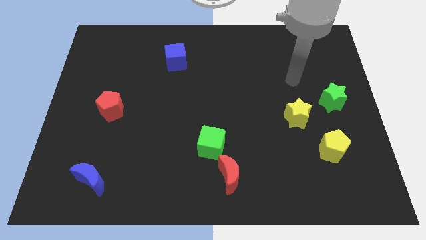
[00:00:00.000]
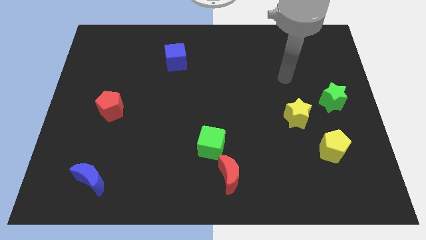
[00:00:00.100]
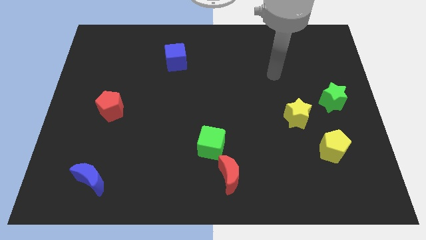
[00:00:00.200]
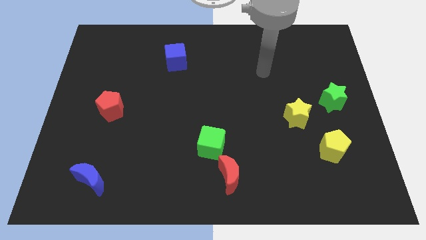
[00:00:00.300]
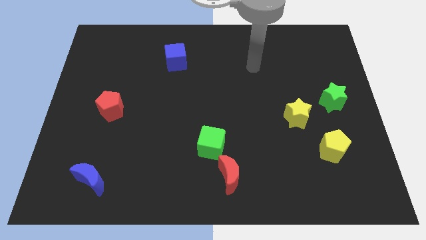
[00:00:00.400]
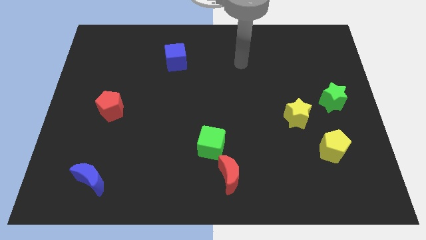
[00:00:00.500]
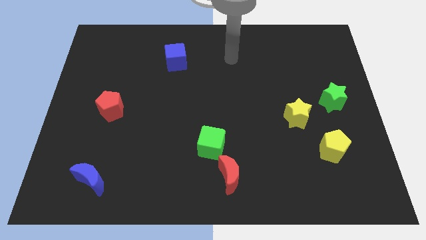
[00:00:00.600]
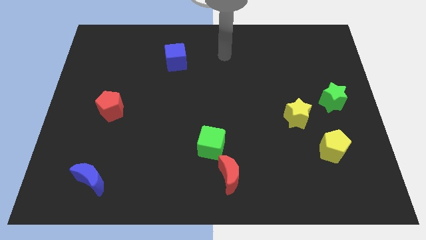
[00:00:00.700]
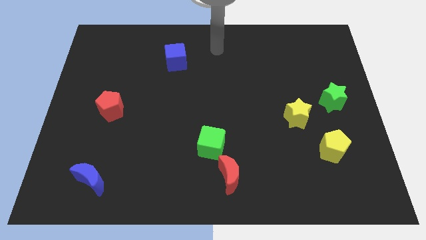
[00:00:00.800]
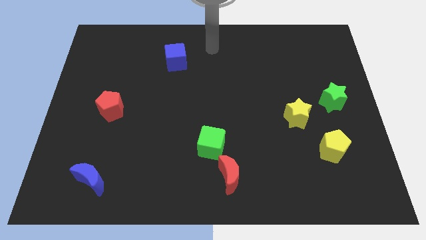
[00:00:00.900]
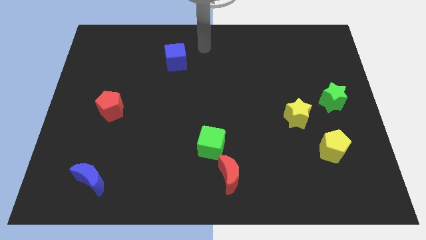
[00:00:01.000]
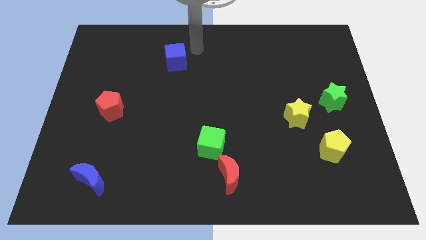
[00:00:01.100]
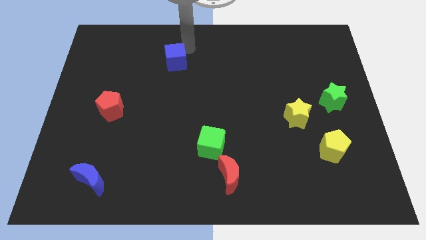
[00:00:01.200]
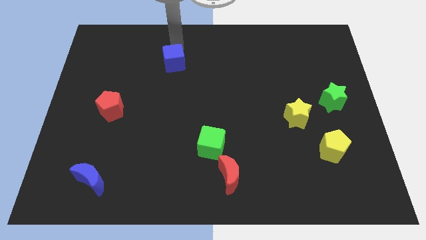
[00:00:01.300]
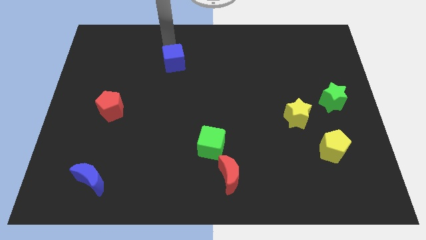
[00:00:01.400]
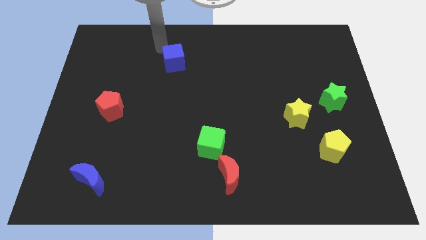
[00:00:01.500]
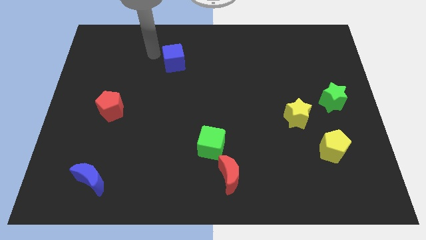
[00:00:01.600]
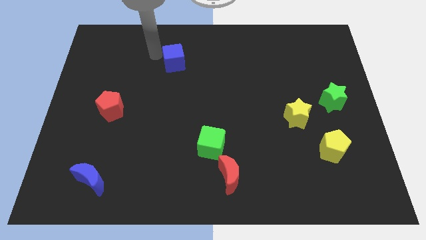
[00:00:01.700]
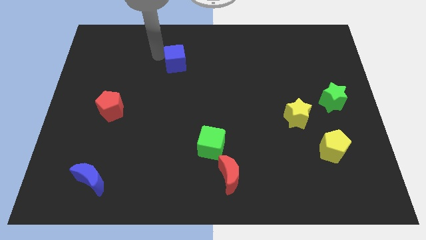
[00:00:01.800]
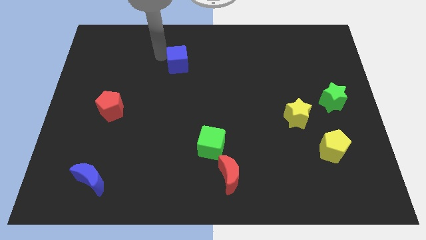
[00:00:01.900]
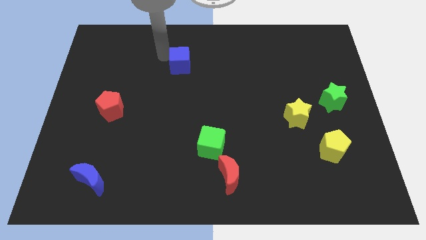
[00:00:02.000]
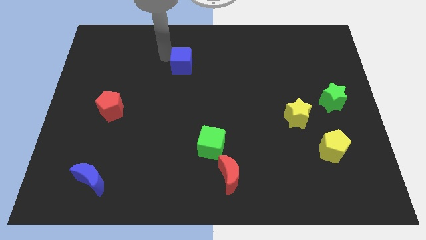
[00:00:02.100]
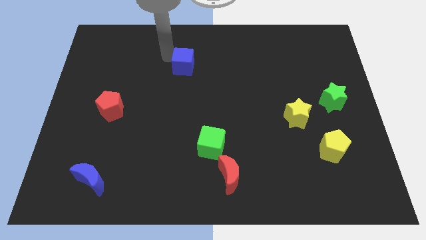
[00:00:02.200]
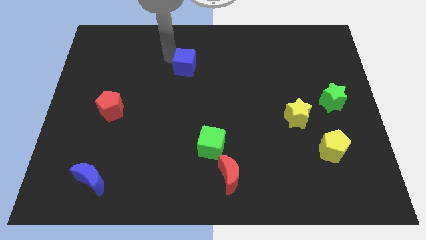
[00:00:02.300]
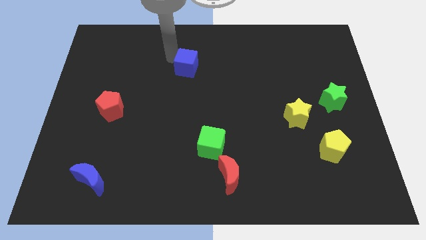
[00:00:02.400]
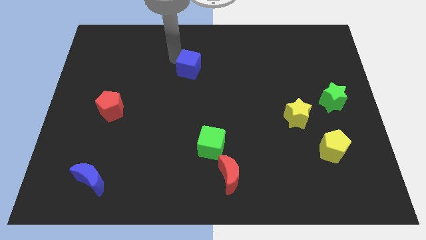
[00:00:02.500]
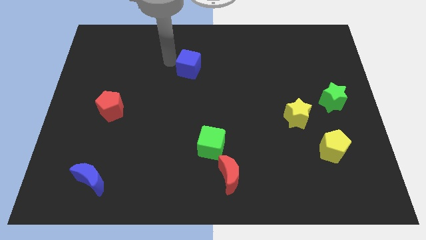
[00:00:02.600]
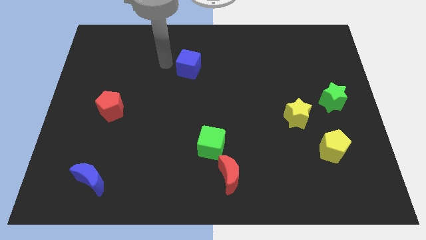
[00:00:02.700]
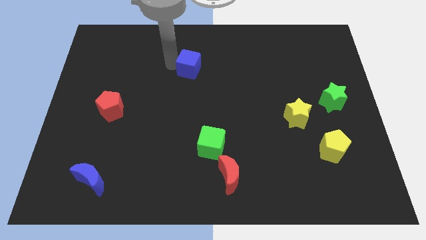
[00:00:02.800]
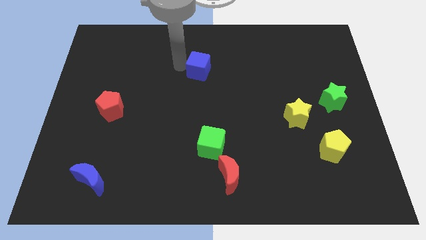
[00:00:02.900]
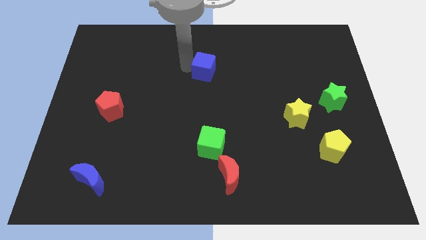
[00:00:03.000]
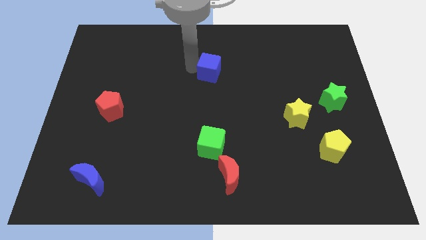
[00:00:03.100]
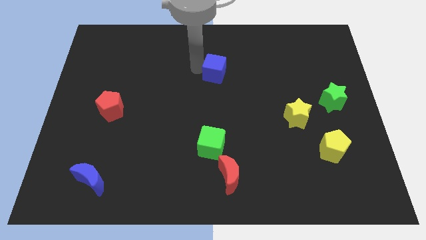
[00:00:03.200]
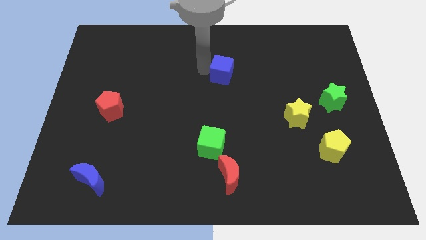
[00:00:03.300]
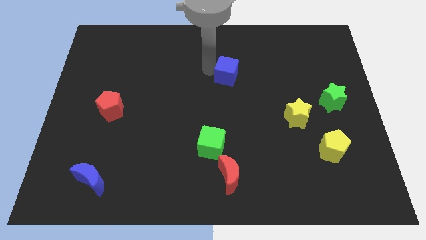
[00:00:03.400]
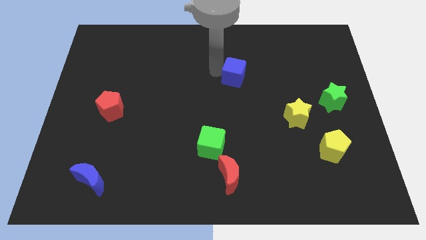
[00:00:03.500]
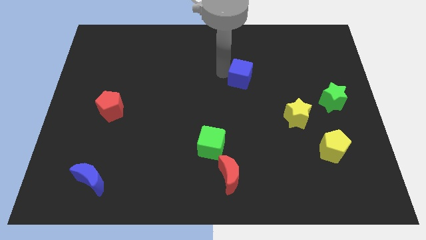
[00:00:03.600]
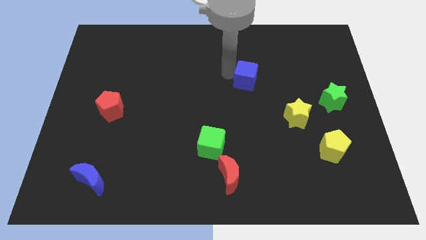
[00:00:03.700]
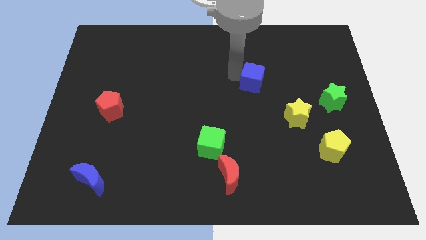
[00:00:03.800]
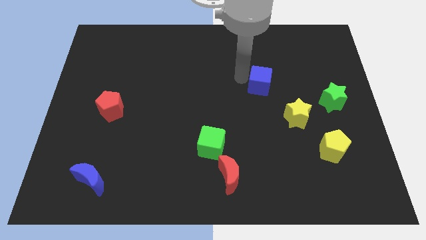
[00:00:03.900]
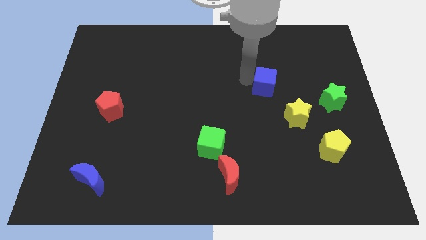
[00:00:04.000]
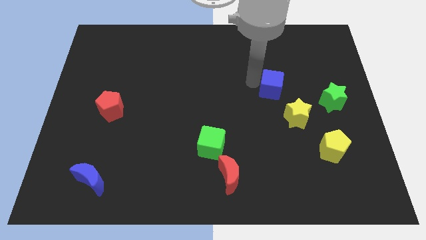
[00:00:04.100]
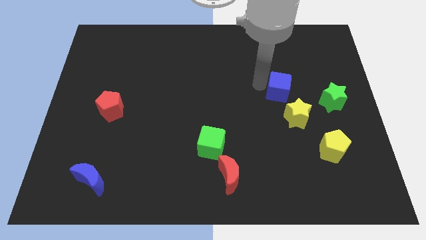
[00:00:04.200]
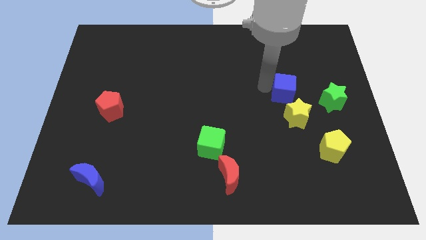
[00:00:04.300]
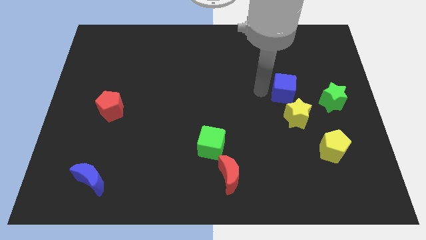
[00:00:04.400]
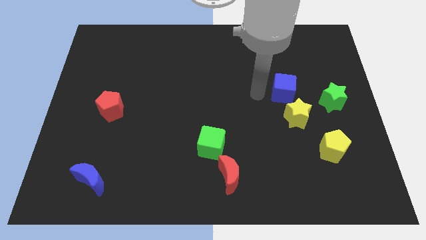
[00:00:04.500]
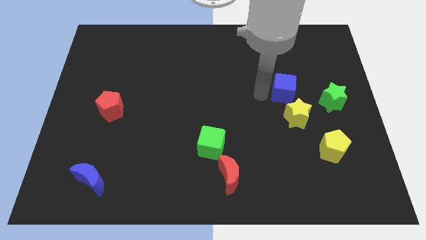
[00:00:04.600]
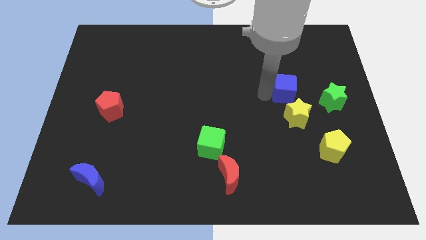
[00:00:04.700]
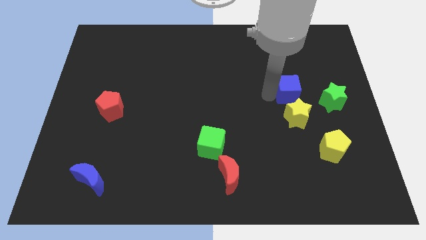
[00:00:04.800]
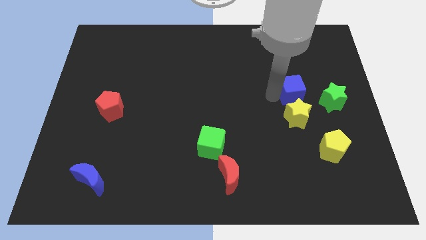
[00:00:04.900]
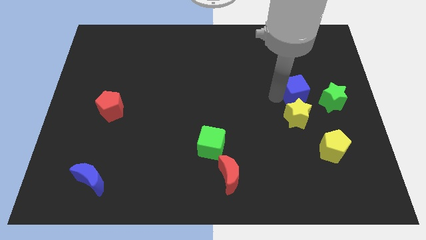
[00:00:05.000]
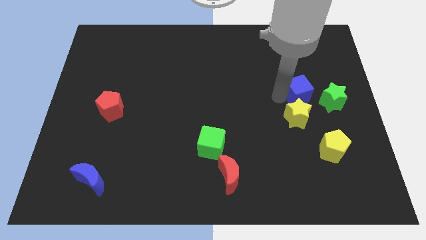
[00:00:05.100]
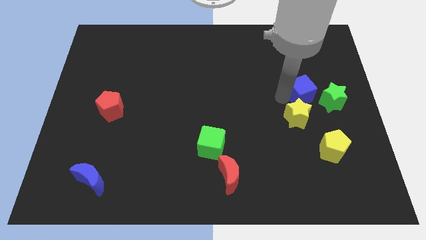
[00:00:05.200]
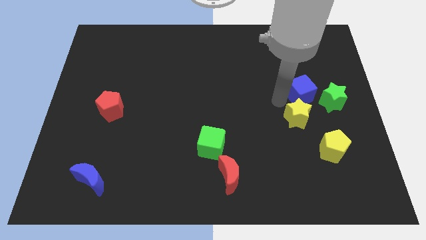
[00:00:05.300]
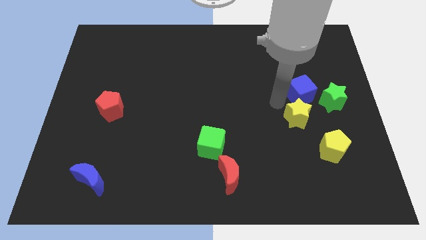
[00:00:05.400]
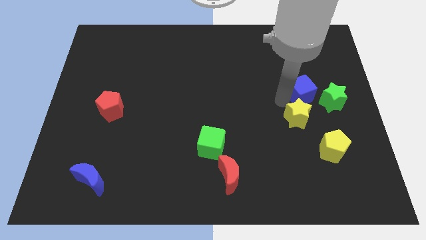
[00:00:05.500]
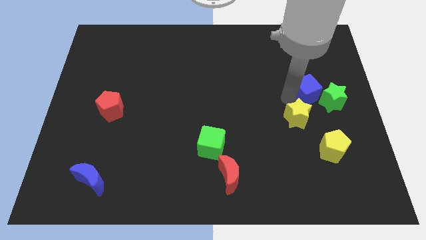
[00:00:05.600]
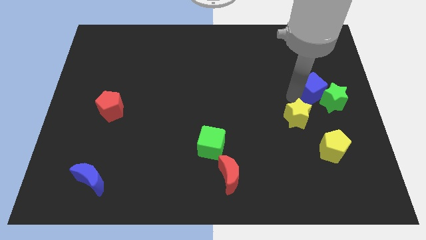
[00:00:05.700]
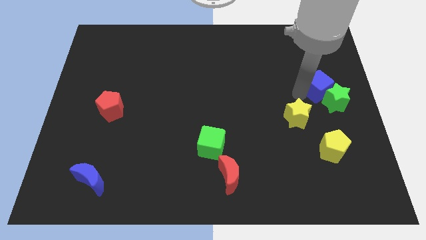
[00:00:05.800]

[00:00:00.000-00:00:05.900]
move the blue cube to the right side
